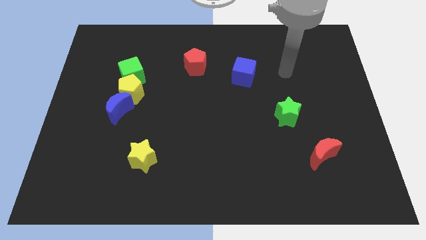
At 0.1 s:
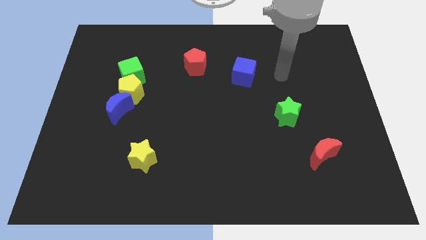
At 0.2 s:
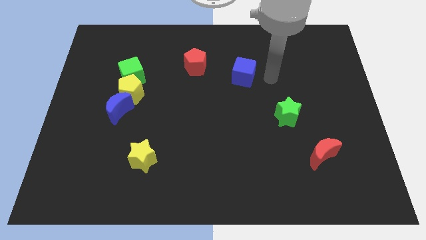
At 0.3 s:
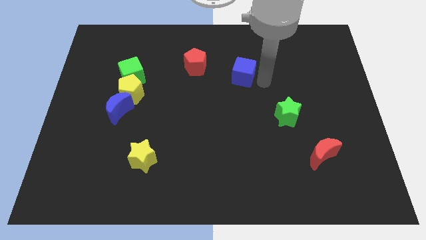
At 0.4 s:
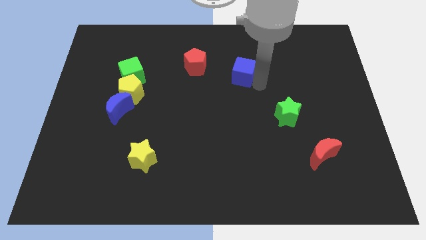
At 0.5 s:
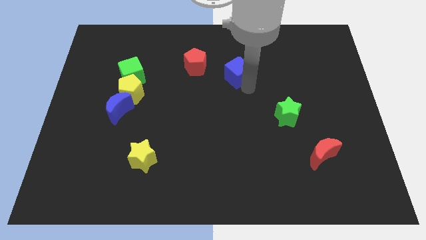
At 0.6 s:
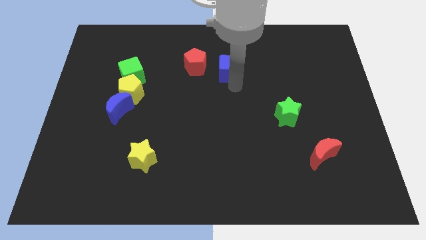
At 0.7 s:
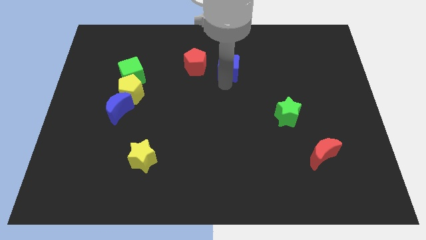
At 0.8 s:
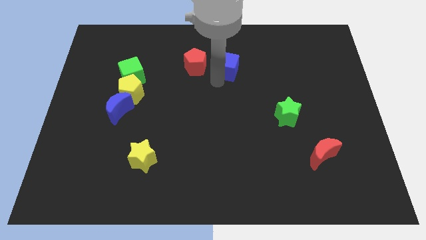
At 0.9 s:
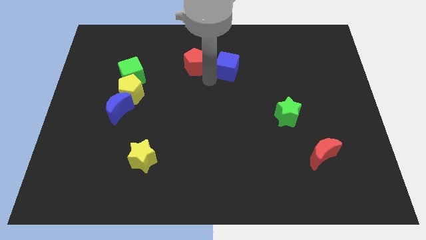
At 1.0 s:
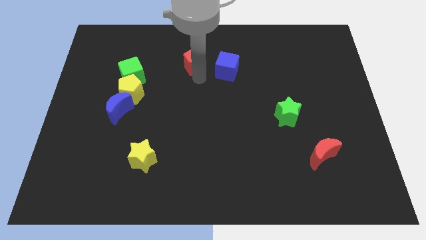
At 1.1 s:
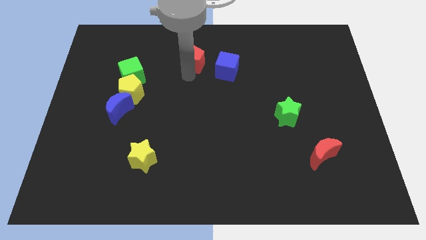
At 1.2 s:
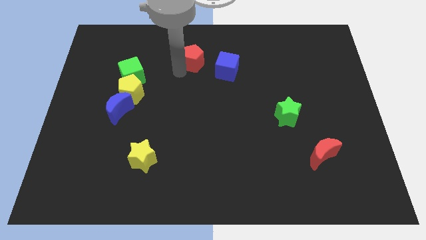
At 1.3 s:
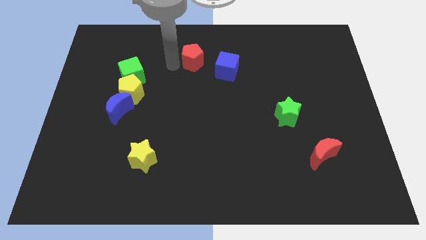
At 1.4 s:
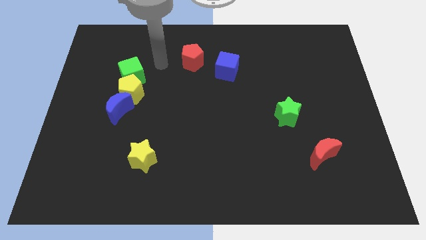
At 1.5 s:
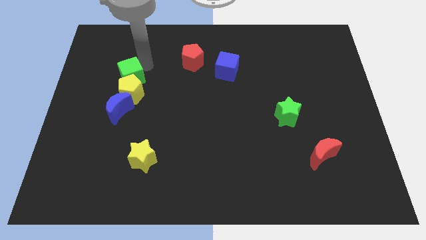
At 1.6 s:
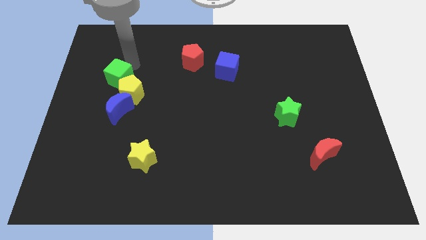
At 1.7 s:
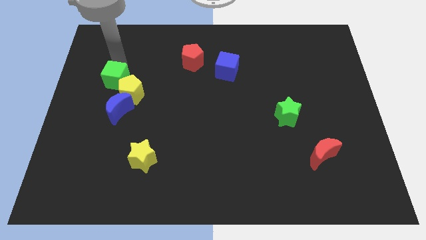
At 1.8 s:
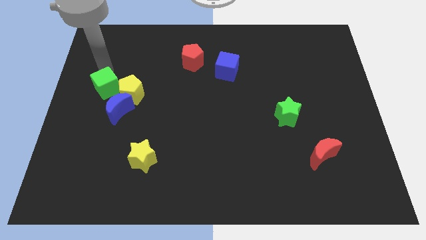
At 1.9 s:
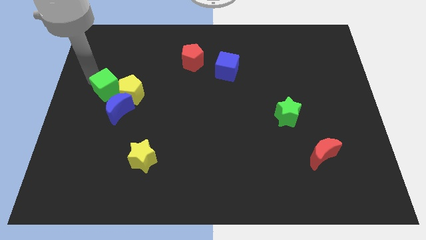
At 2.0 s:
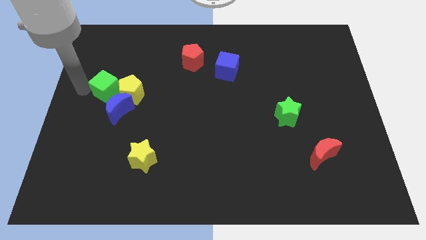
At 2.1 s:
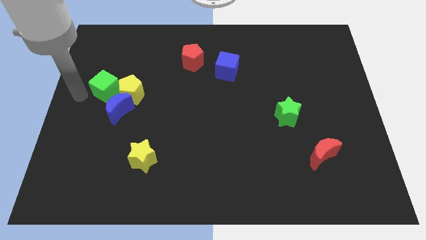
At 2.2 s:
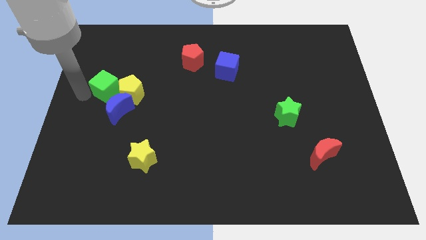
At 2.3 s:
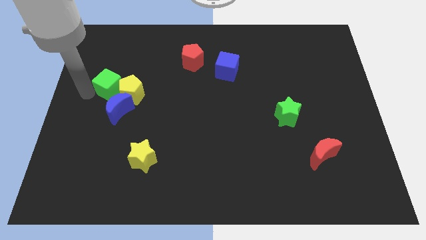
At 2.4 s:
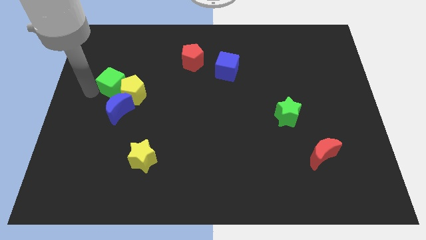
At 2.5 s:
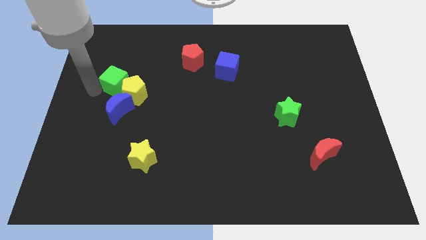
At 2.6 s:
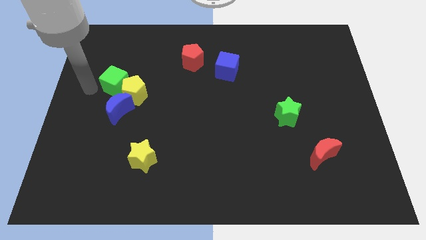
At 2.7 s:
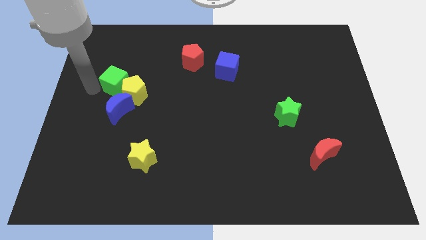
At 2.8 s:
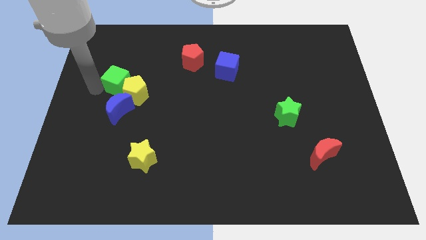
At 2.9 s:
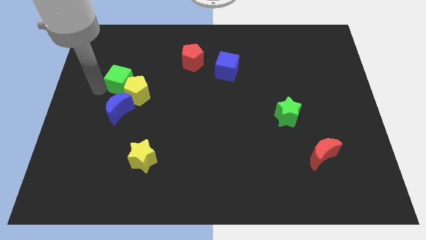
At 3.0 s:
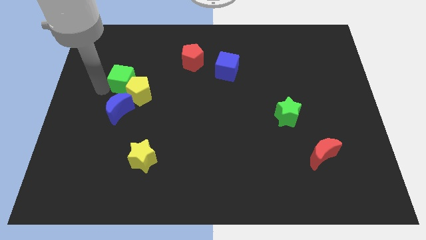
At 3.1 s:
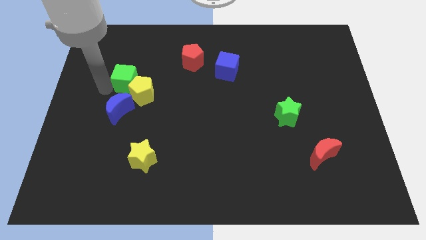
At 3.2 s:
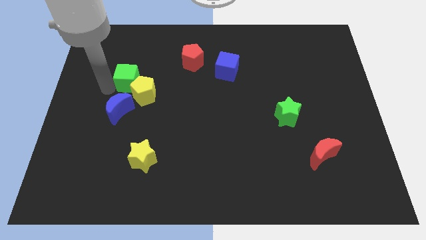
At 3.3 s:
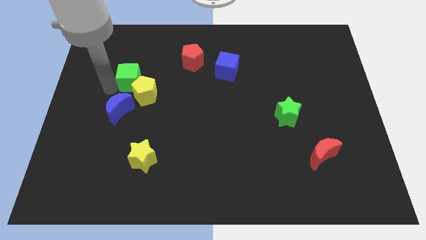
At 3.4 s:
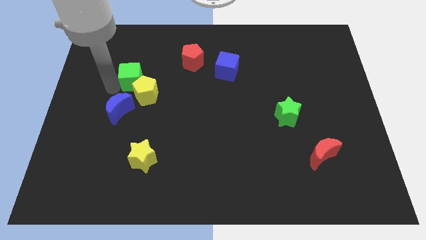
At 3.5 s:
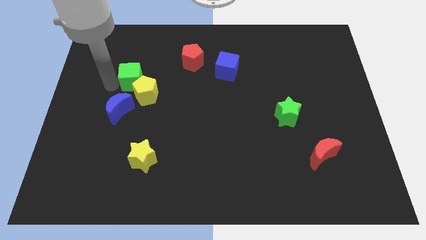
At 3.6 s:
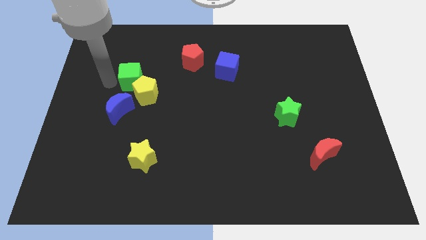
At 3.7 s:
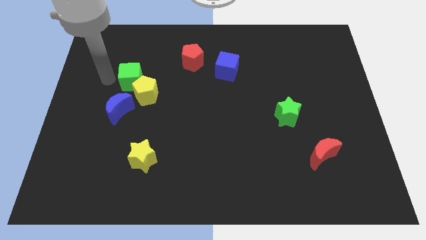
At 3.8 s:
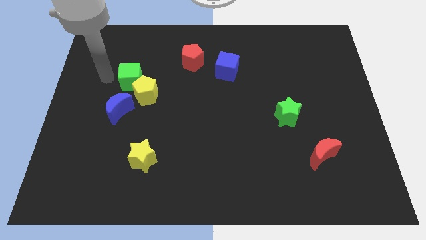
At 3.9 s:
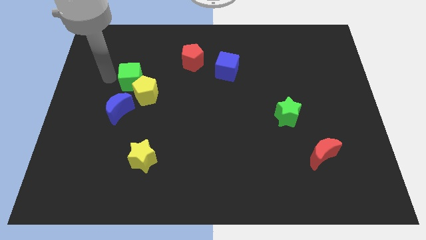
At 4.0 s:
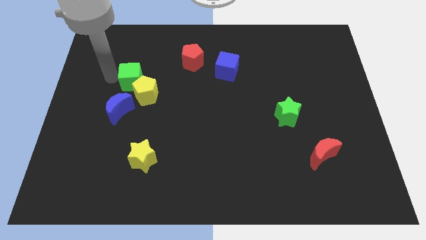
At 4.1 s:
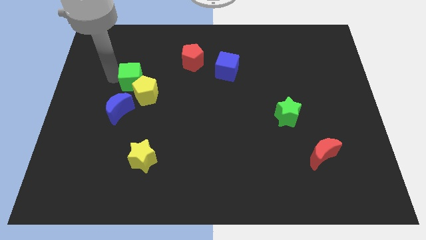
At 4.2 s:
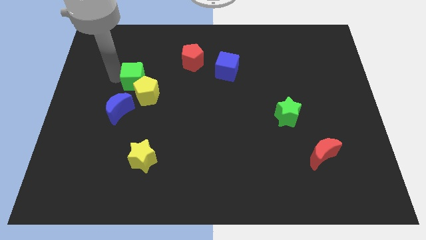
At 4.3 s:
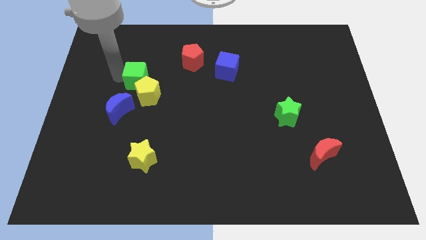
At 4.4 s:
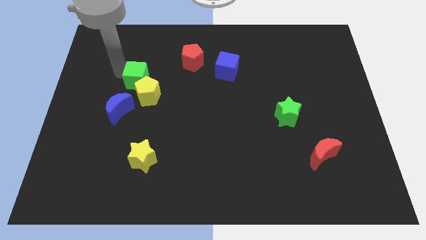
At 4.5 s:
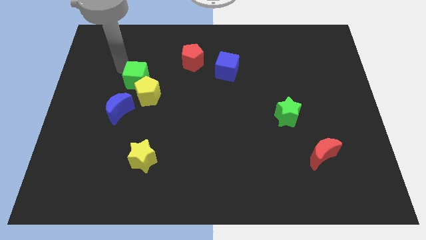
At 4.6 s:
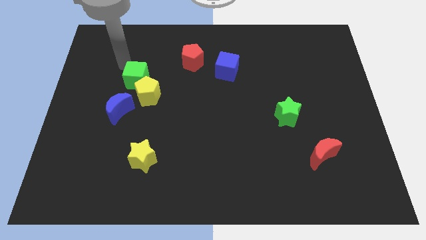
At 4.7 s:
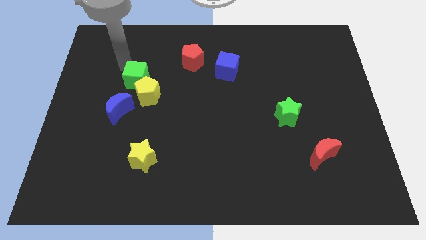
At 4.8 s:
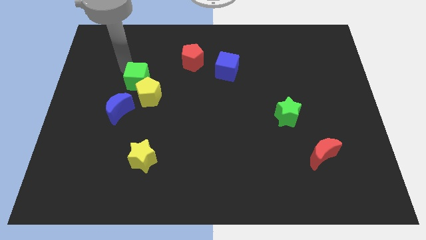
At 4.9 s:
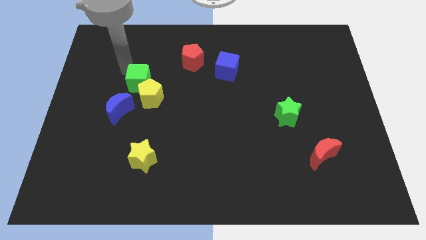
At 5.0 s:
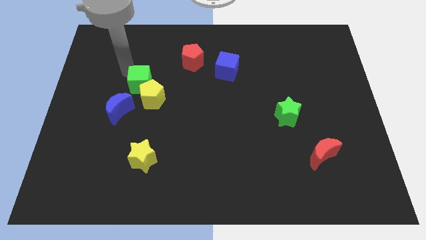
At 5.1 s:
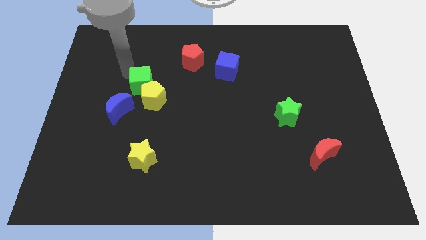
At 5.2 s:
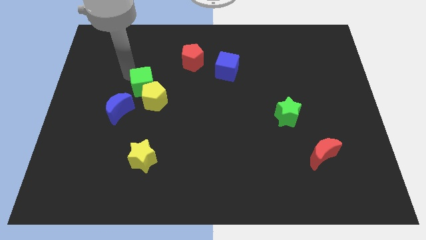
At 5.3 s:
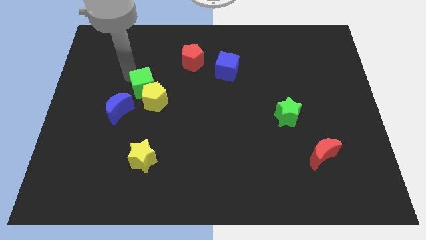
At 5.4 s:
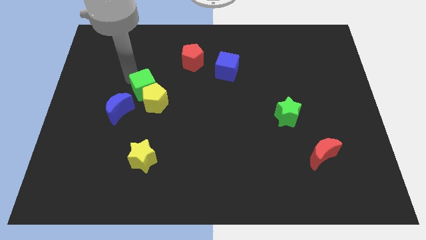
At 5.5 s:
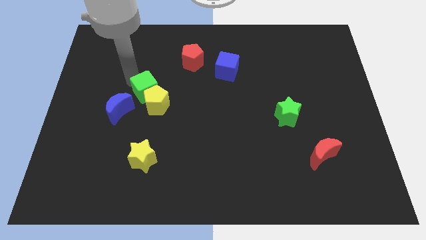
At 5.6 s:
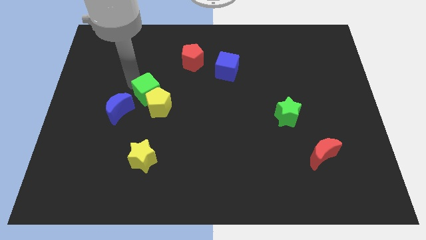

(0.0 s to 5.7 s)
push the green cube a little down and to the right diagonally

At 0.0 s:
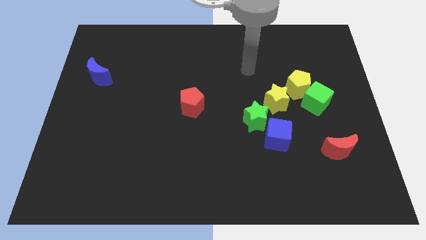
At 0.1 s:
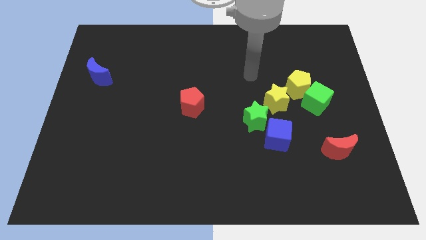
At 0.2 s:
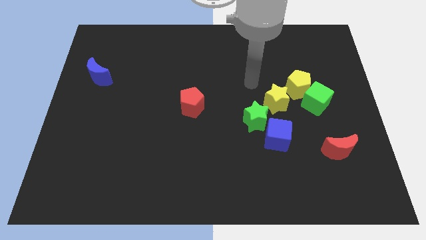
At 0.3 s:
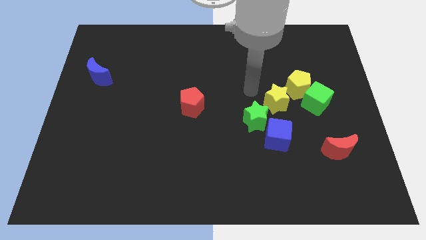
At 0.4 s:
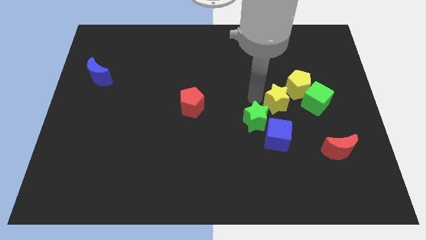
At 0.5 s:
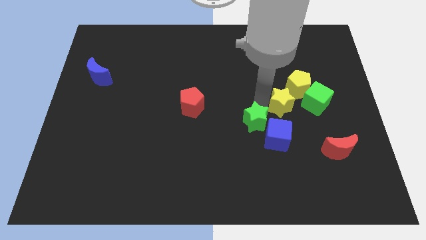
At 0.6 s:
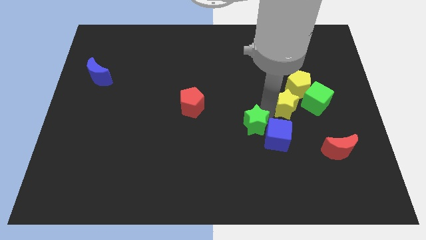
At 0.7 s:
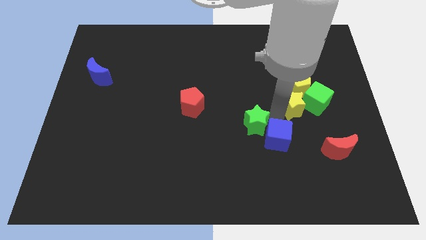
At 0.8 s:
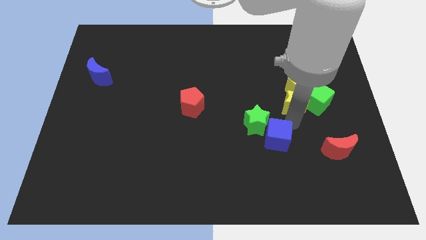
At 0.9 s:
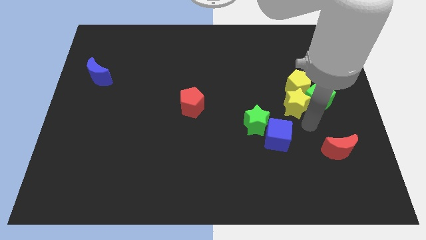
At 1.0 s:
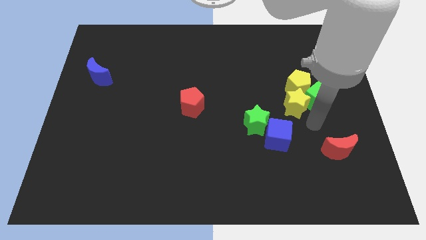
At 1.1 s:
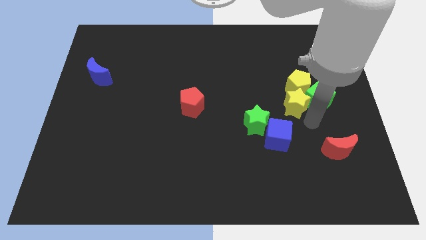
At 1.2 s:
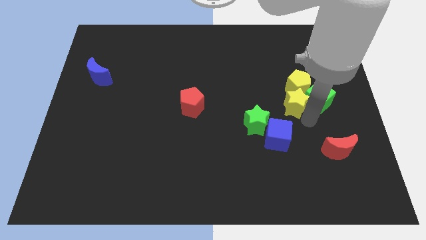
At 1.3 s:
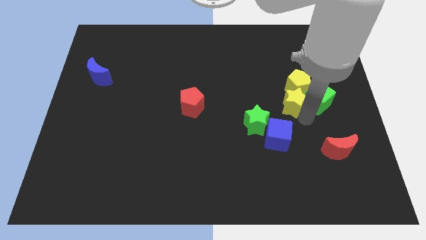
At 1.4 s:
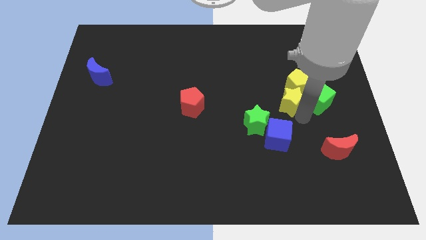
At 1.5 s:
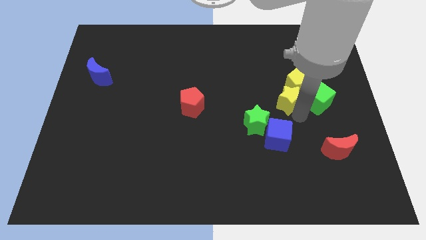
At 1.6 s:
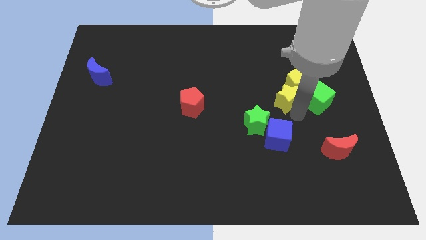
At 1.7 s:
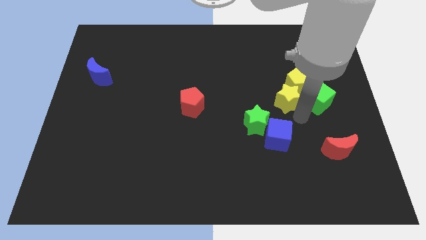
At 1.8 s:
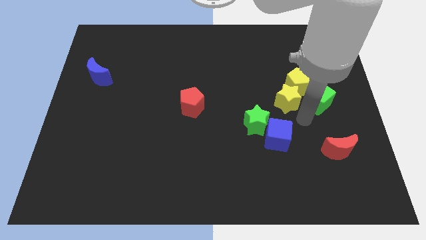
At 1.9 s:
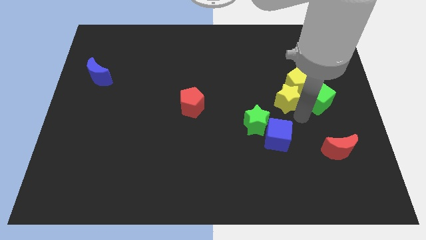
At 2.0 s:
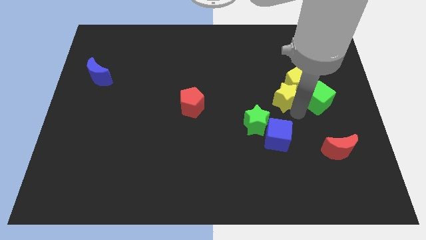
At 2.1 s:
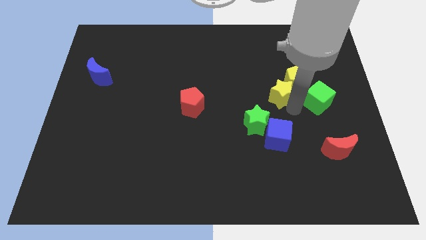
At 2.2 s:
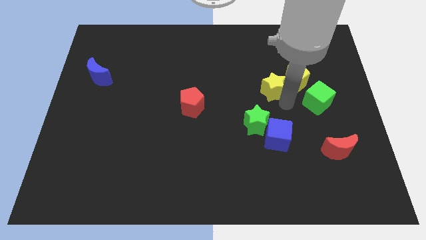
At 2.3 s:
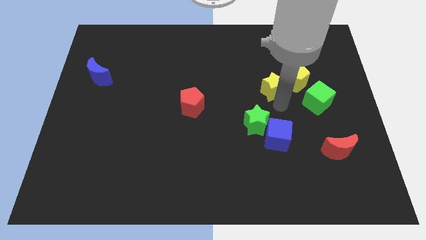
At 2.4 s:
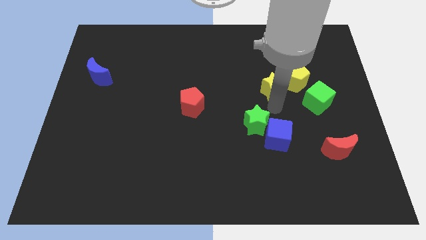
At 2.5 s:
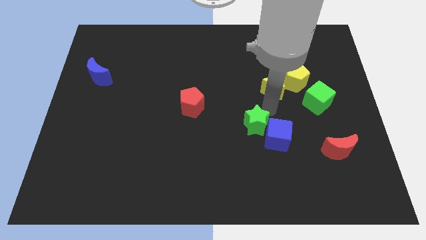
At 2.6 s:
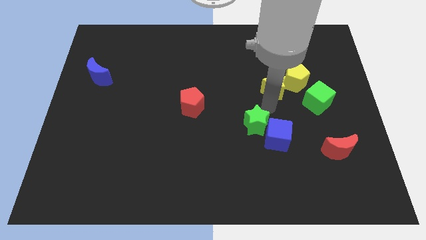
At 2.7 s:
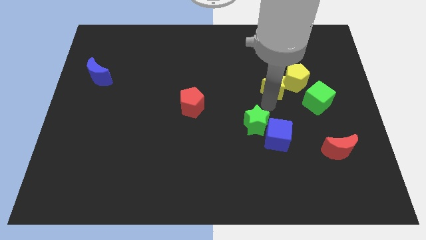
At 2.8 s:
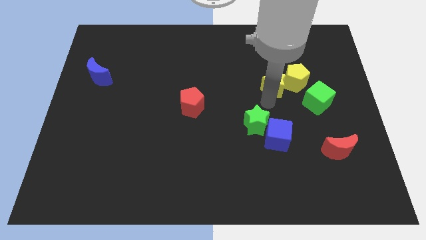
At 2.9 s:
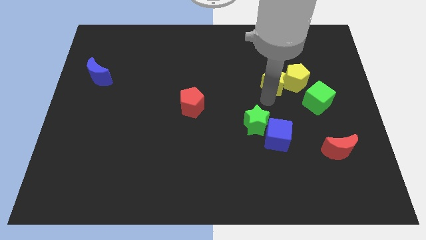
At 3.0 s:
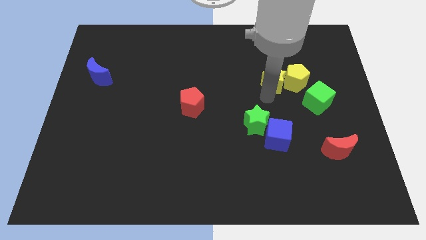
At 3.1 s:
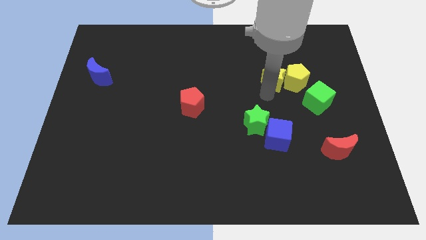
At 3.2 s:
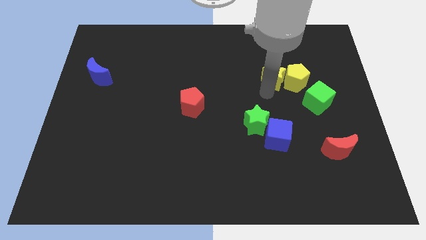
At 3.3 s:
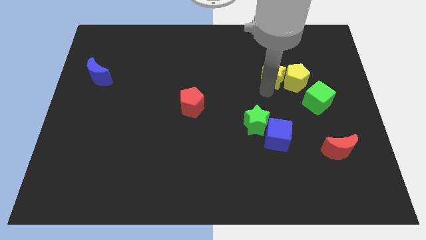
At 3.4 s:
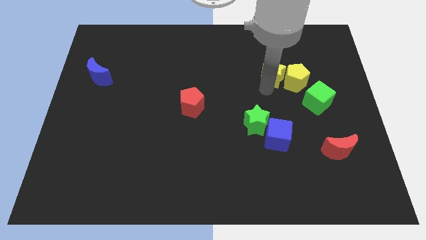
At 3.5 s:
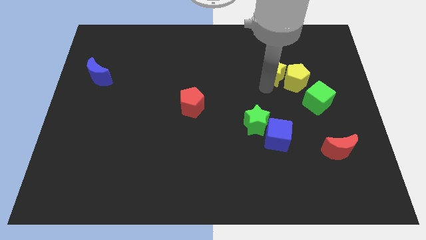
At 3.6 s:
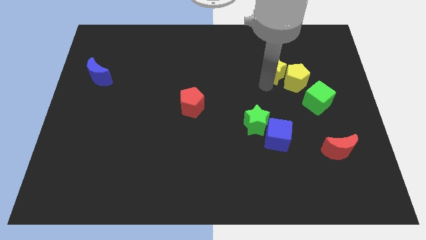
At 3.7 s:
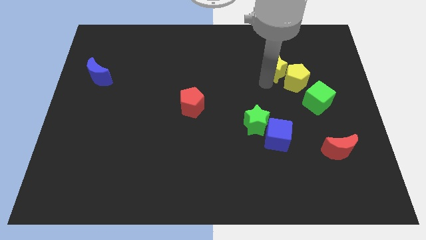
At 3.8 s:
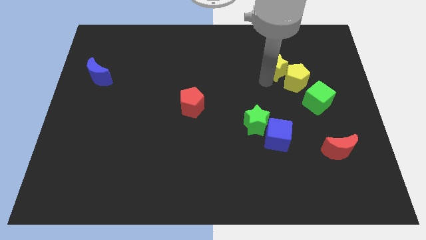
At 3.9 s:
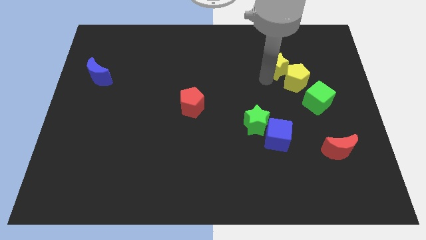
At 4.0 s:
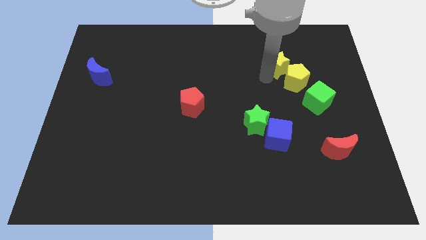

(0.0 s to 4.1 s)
slightly slide the yellow star diagonally upwards and right
